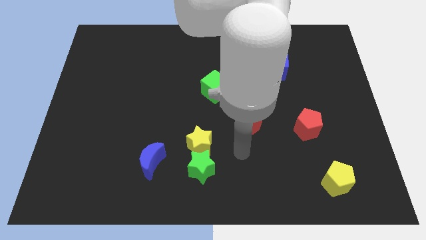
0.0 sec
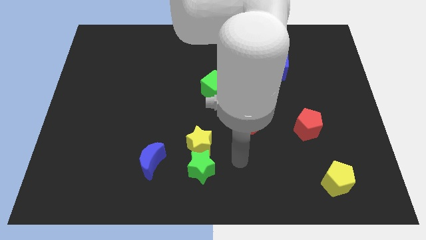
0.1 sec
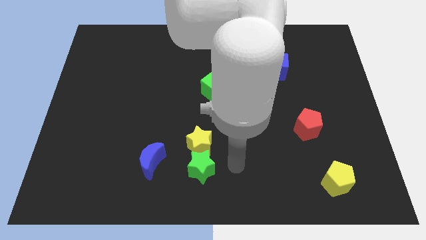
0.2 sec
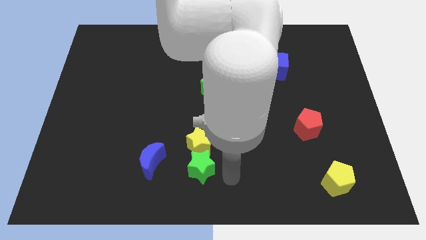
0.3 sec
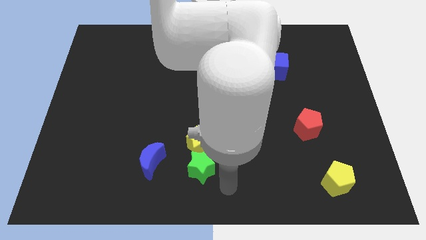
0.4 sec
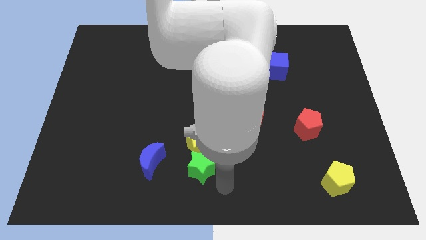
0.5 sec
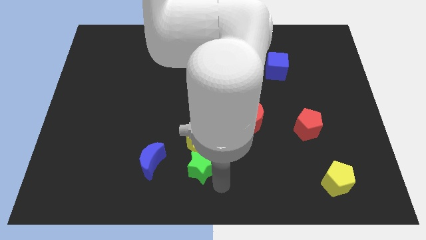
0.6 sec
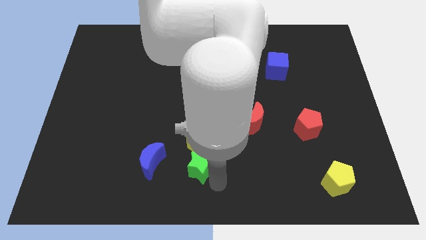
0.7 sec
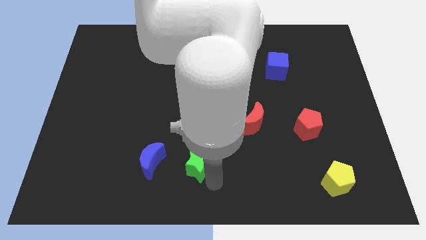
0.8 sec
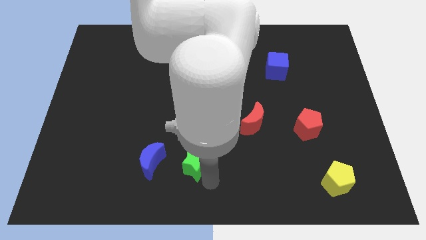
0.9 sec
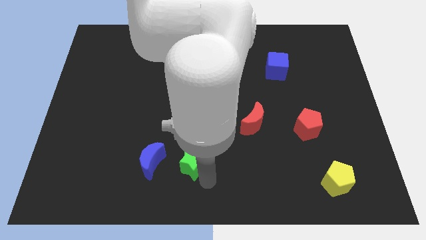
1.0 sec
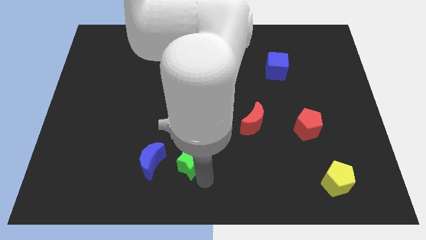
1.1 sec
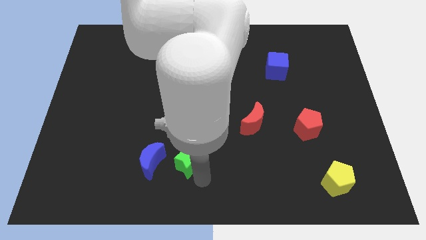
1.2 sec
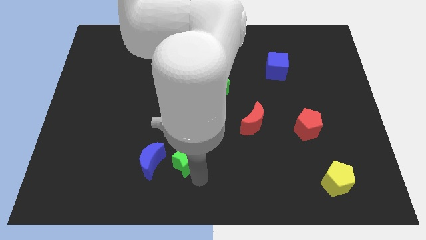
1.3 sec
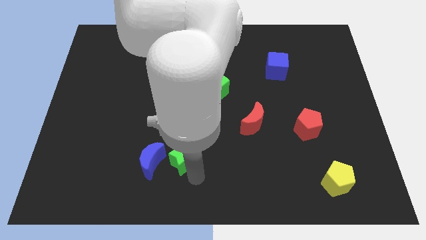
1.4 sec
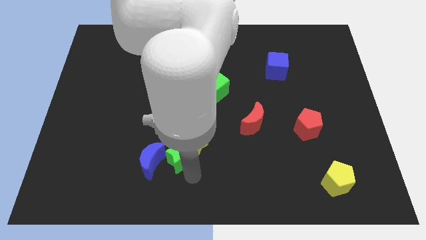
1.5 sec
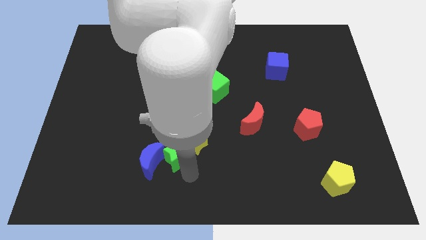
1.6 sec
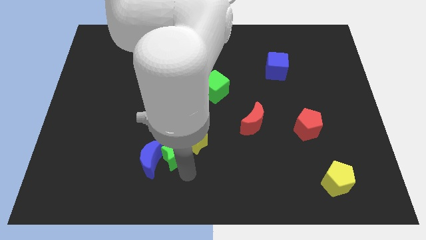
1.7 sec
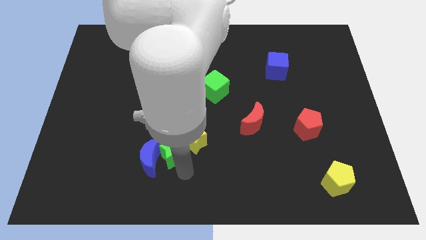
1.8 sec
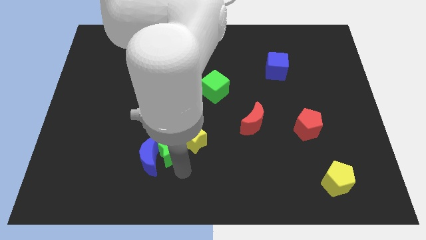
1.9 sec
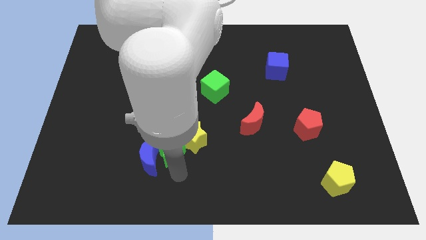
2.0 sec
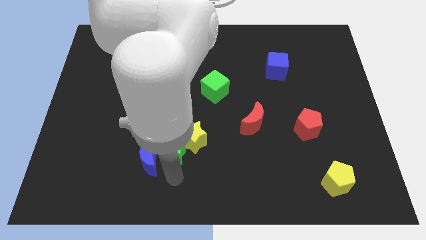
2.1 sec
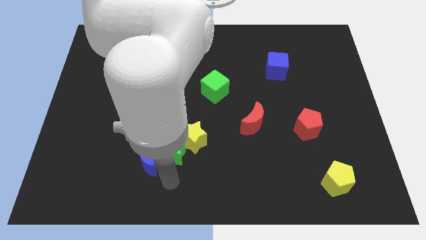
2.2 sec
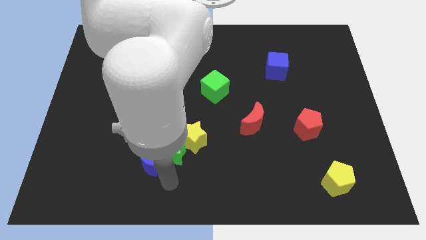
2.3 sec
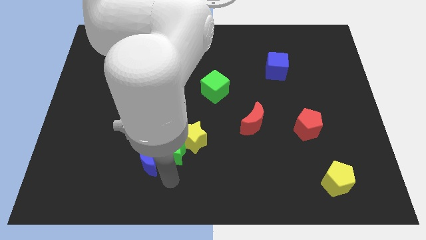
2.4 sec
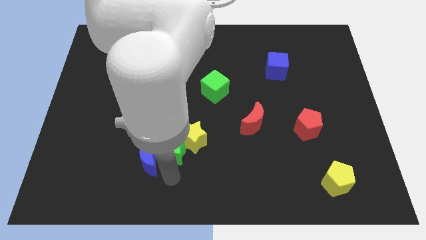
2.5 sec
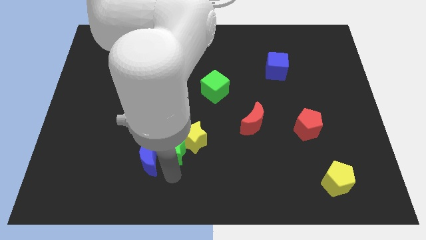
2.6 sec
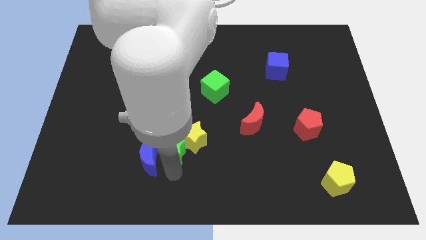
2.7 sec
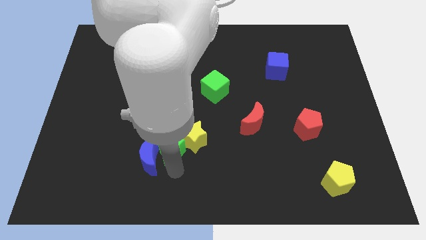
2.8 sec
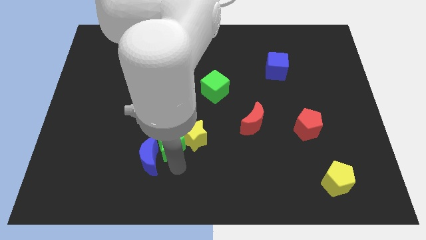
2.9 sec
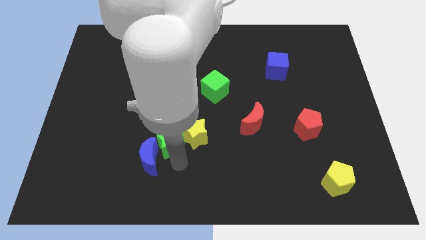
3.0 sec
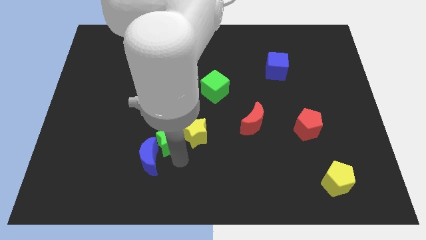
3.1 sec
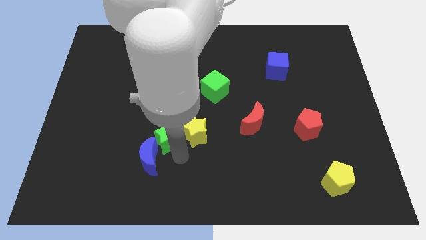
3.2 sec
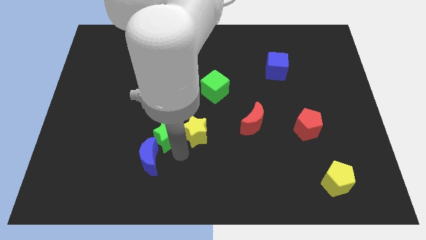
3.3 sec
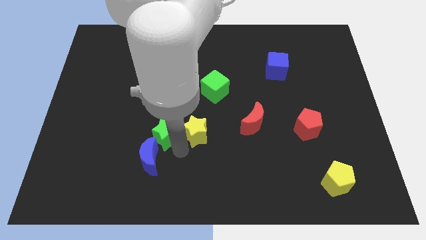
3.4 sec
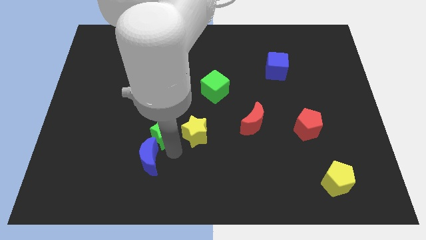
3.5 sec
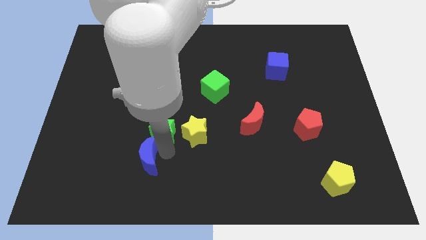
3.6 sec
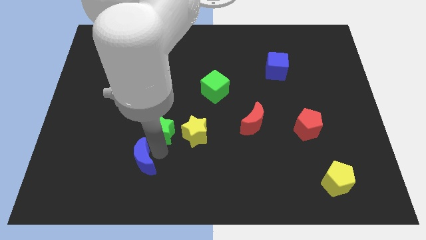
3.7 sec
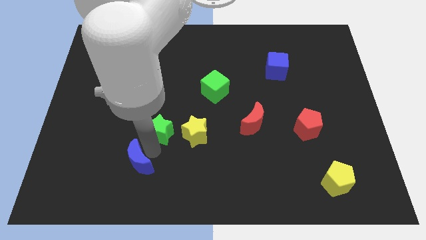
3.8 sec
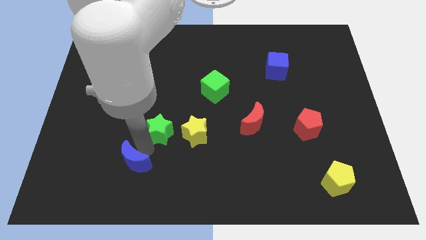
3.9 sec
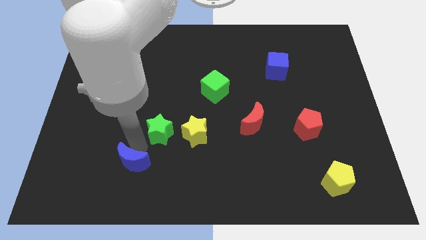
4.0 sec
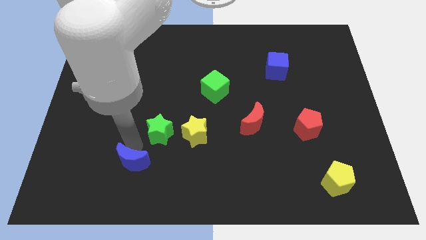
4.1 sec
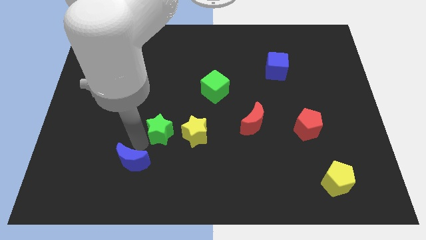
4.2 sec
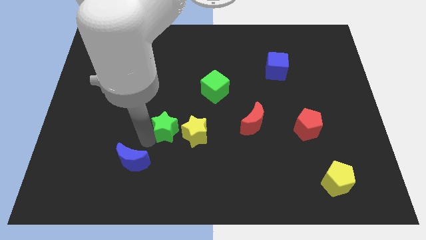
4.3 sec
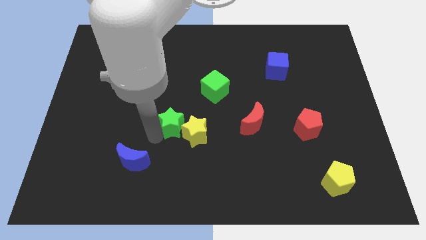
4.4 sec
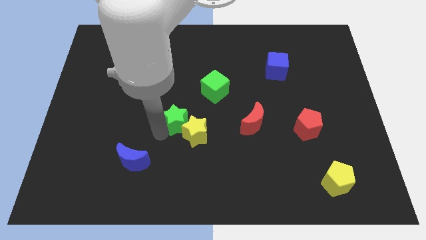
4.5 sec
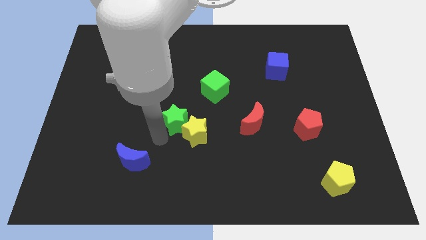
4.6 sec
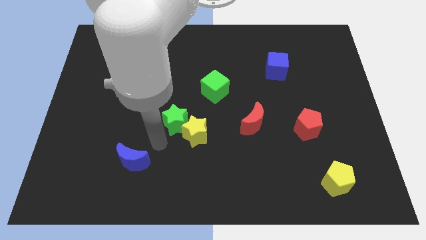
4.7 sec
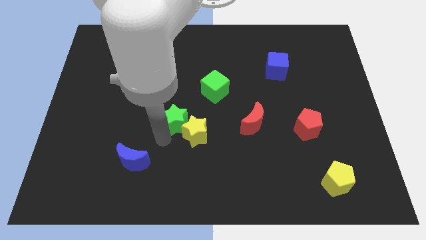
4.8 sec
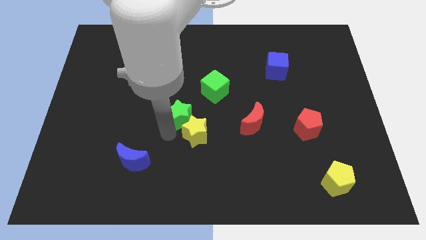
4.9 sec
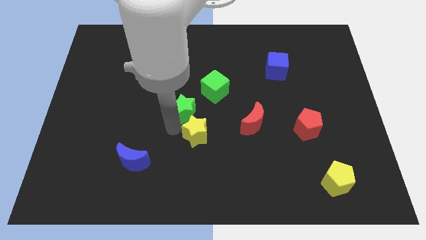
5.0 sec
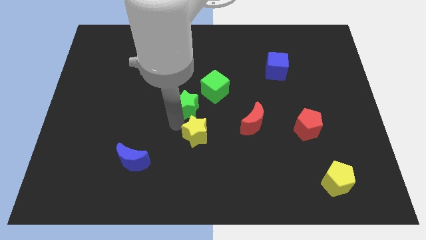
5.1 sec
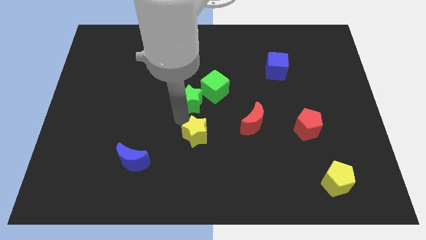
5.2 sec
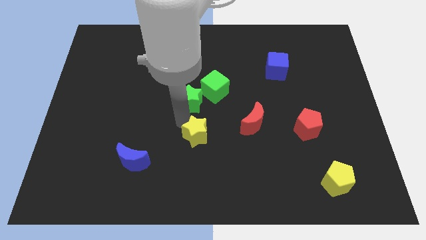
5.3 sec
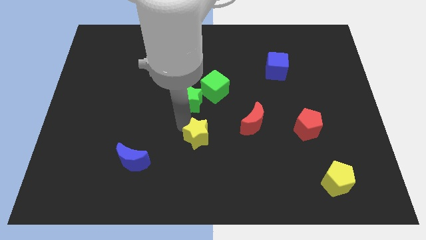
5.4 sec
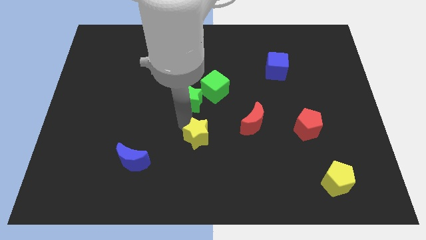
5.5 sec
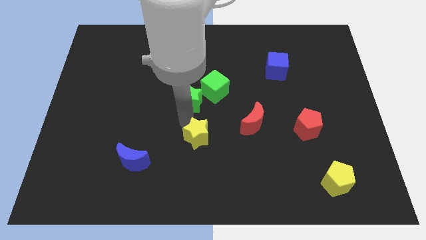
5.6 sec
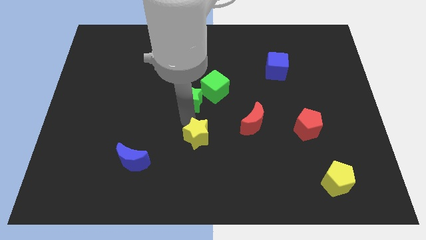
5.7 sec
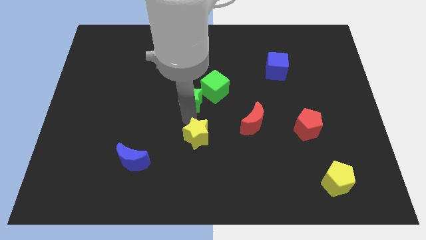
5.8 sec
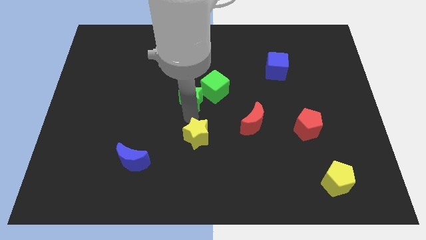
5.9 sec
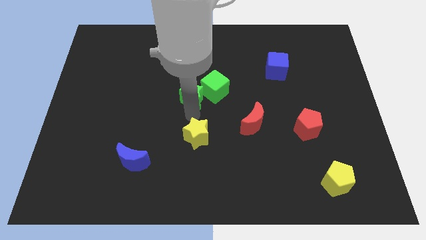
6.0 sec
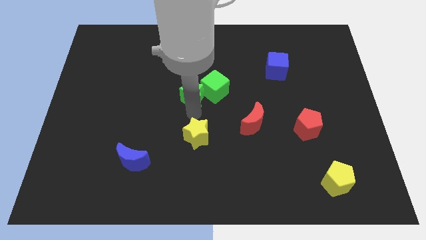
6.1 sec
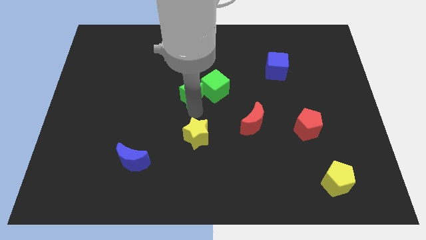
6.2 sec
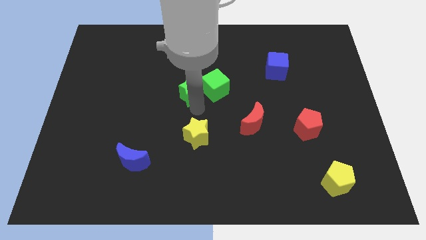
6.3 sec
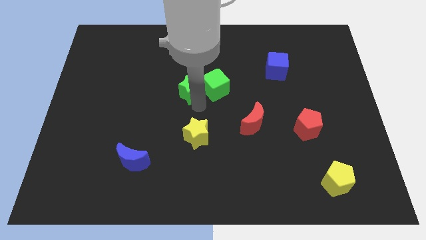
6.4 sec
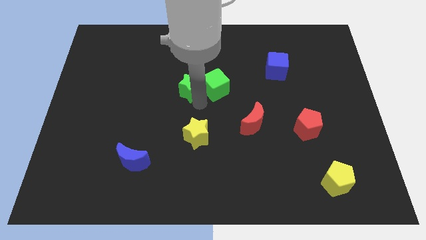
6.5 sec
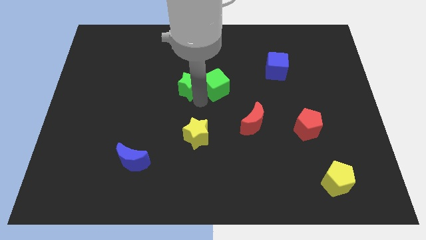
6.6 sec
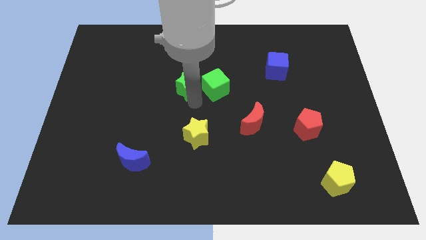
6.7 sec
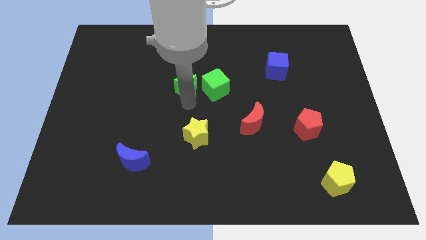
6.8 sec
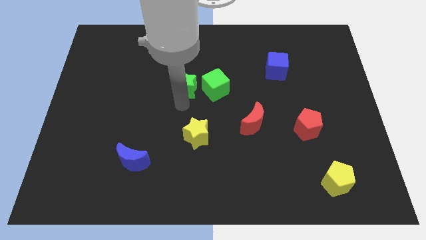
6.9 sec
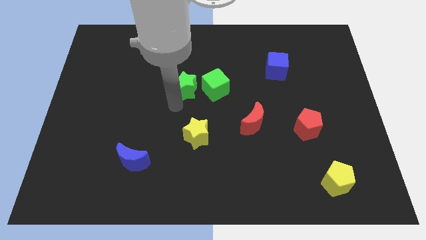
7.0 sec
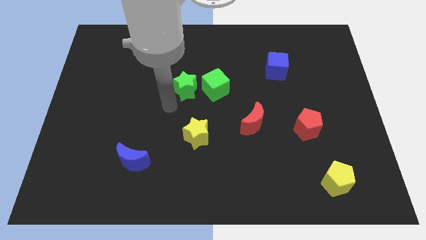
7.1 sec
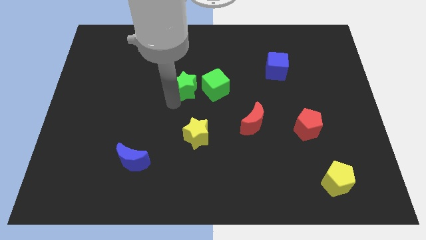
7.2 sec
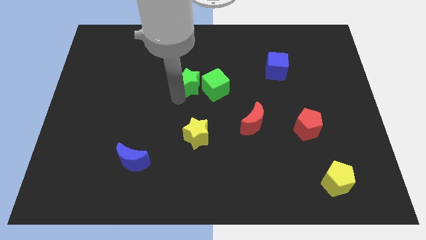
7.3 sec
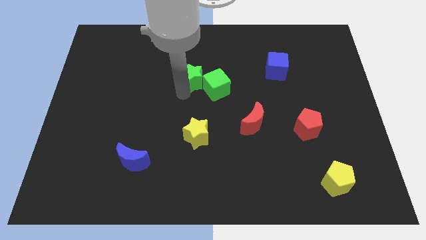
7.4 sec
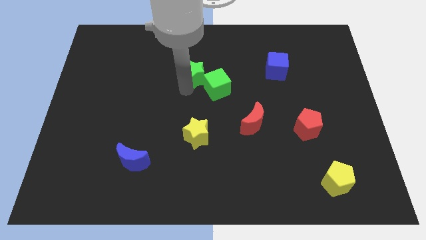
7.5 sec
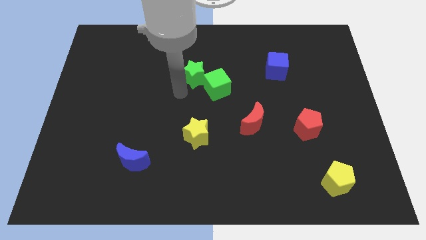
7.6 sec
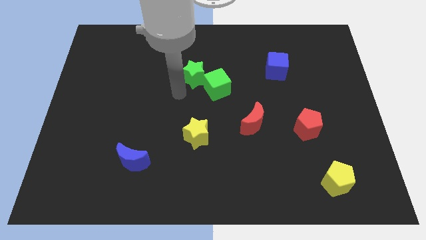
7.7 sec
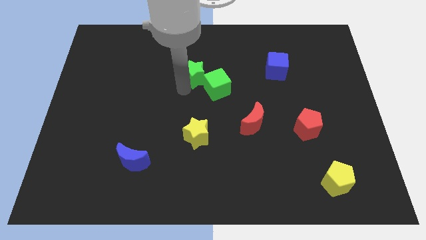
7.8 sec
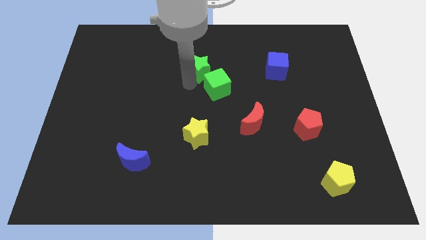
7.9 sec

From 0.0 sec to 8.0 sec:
put the green star to the top side of the green cube
